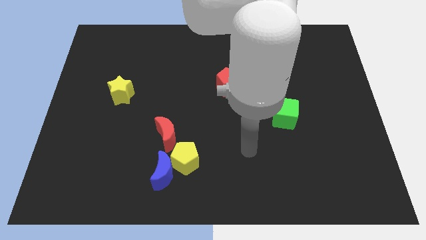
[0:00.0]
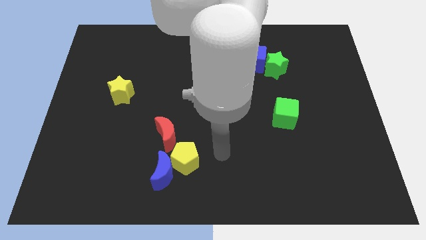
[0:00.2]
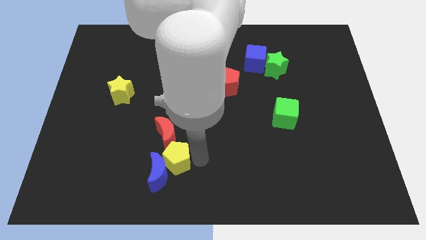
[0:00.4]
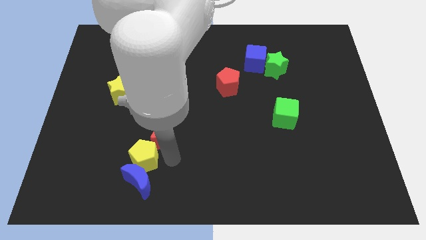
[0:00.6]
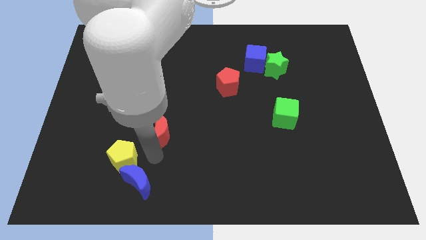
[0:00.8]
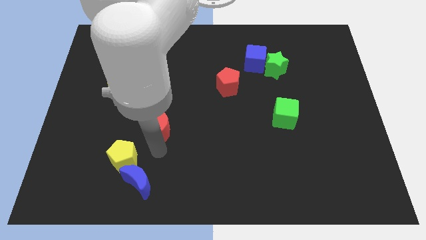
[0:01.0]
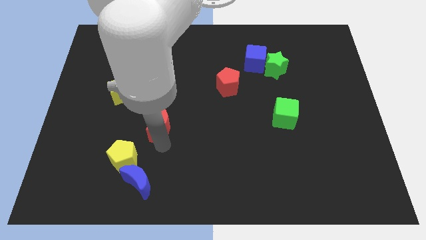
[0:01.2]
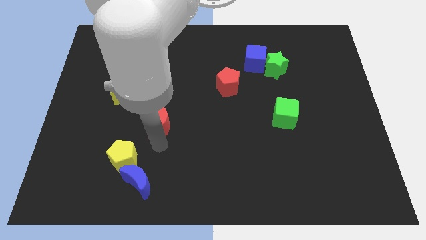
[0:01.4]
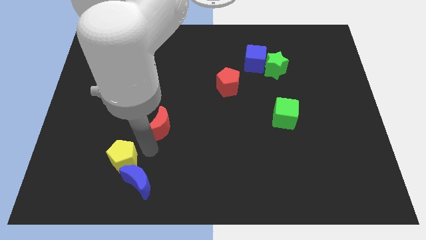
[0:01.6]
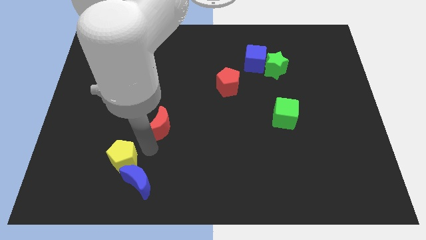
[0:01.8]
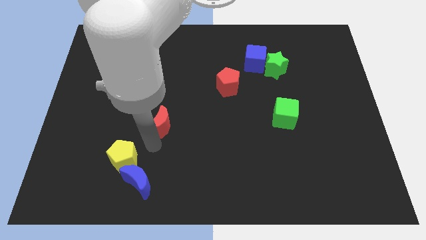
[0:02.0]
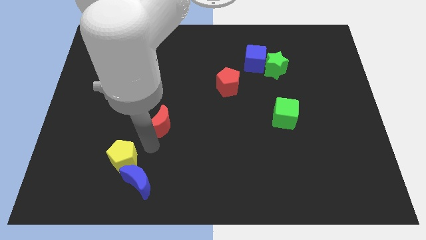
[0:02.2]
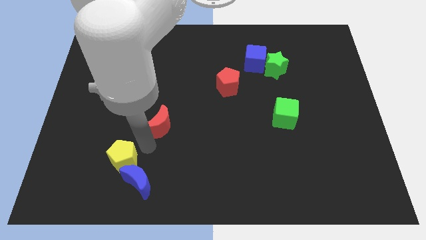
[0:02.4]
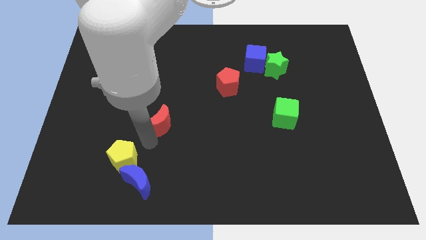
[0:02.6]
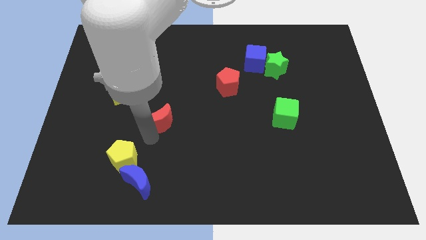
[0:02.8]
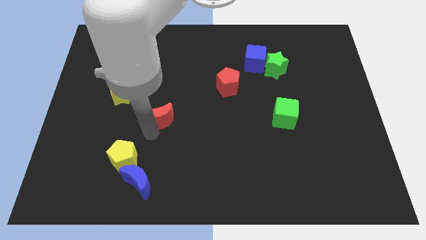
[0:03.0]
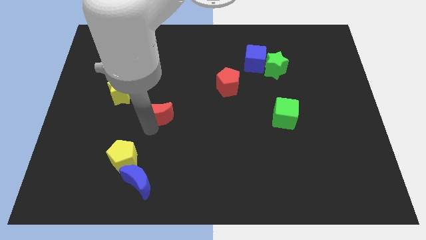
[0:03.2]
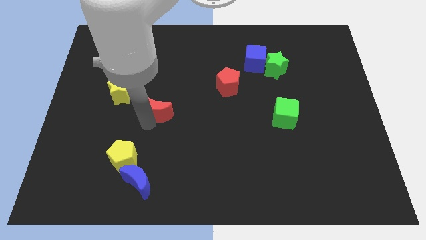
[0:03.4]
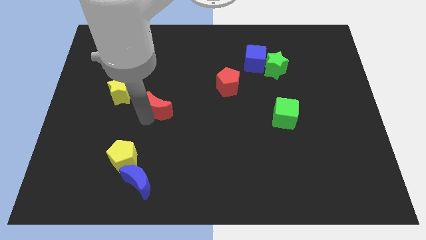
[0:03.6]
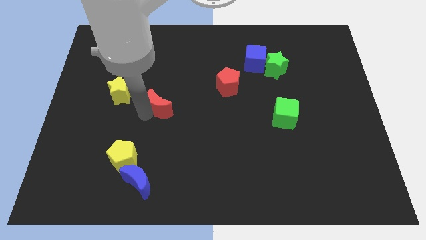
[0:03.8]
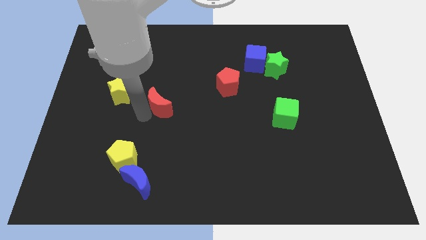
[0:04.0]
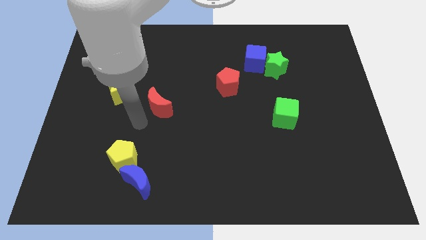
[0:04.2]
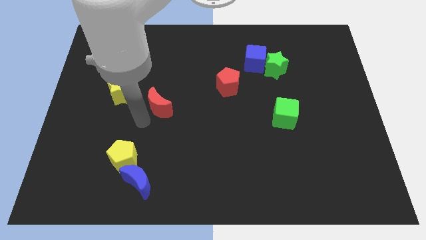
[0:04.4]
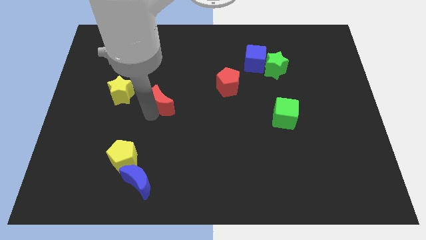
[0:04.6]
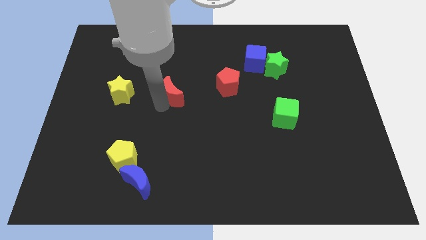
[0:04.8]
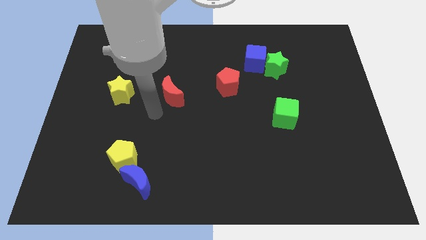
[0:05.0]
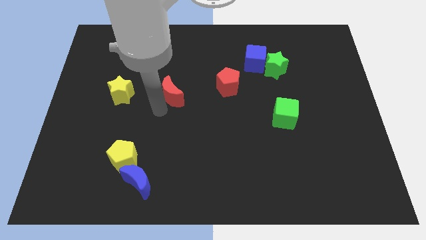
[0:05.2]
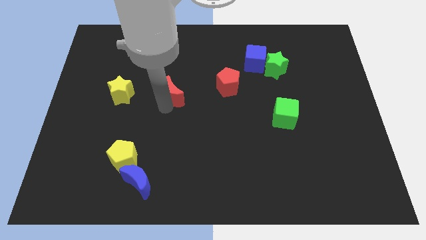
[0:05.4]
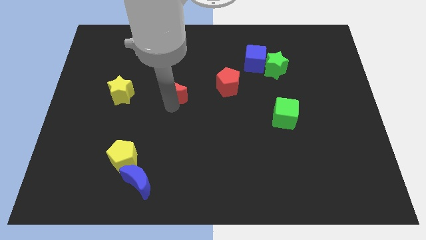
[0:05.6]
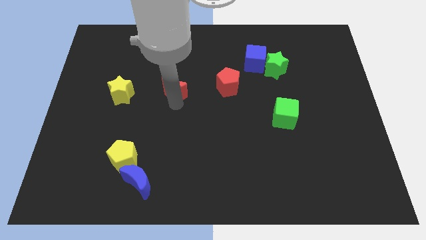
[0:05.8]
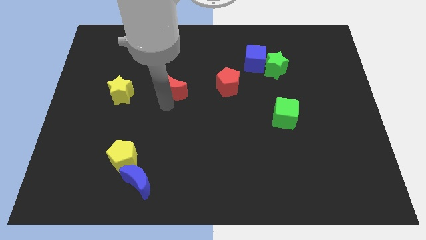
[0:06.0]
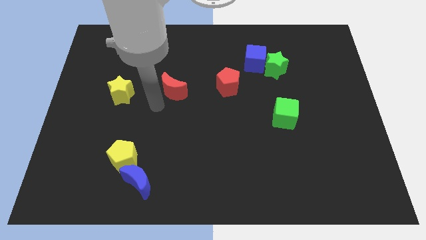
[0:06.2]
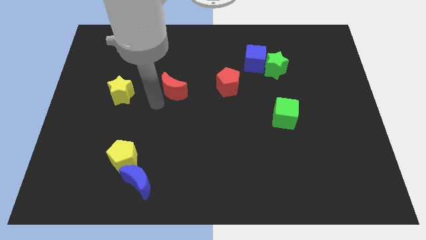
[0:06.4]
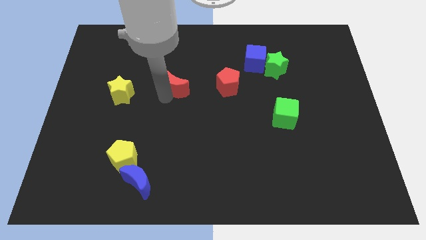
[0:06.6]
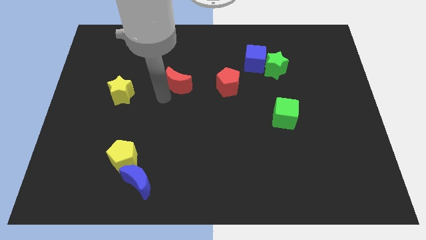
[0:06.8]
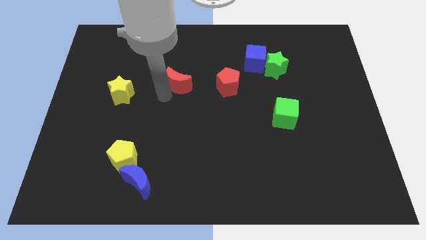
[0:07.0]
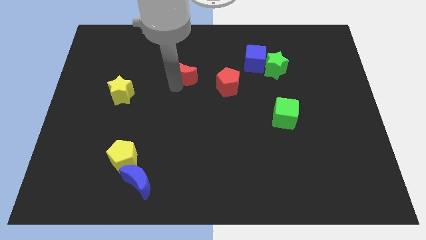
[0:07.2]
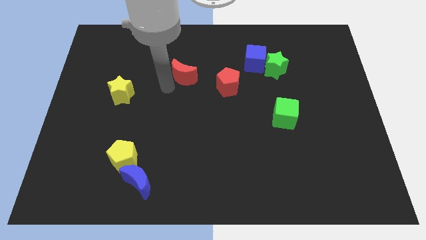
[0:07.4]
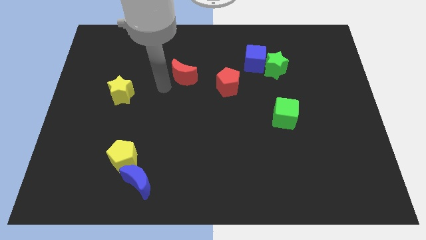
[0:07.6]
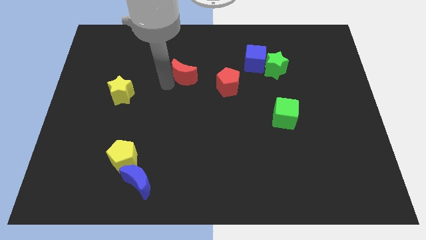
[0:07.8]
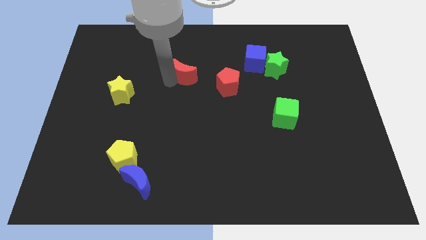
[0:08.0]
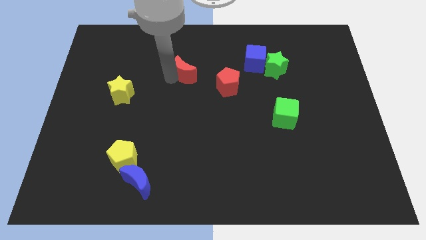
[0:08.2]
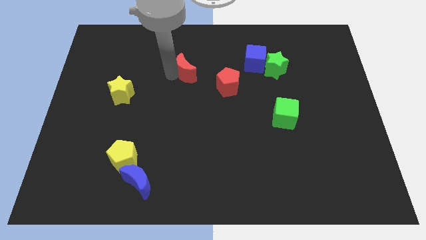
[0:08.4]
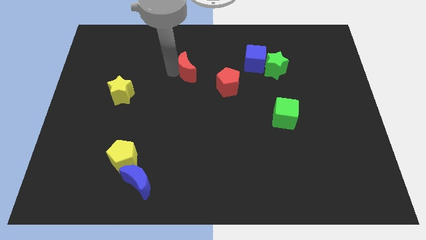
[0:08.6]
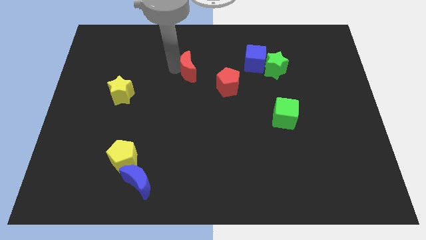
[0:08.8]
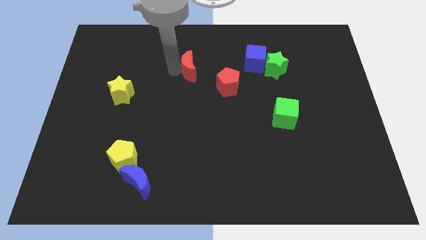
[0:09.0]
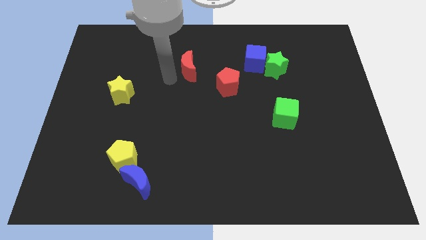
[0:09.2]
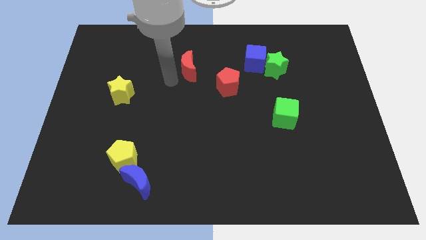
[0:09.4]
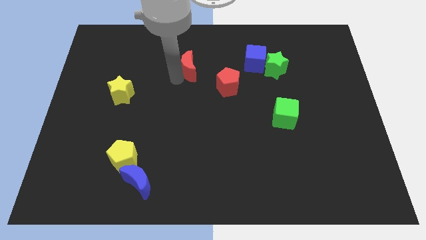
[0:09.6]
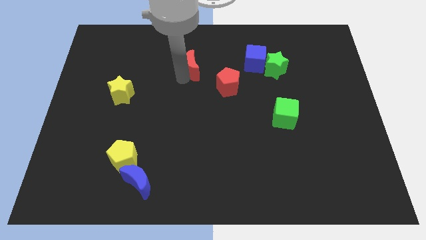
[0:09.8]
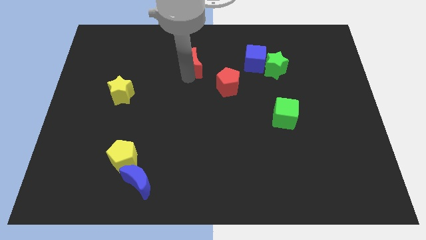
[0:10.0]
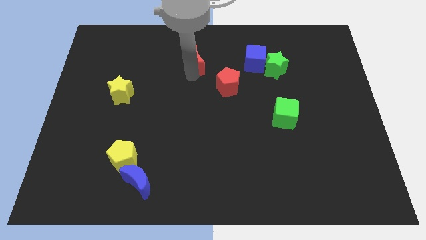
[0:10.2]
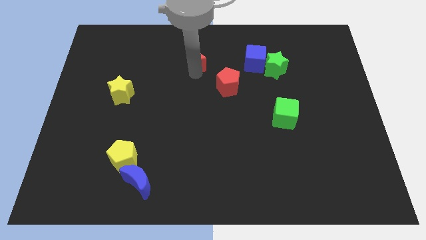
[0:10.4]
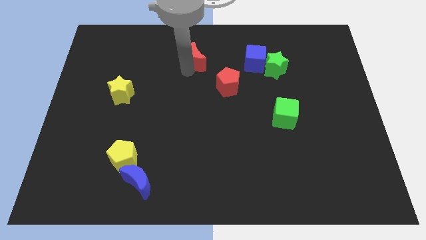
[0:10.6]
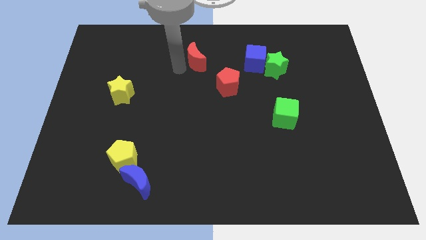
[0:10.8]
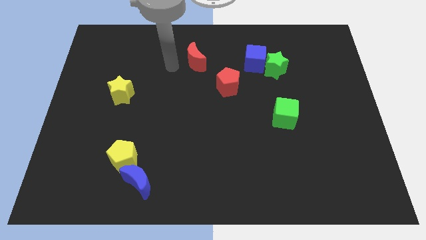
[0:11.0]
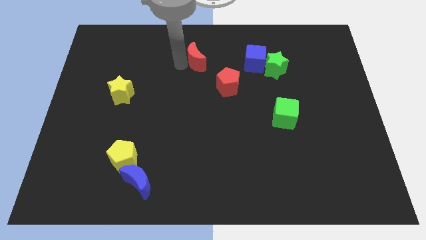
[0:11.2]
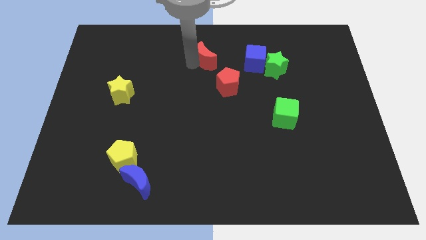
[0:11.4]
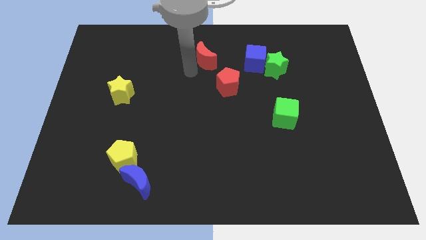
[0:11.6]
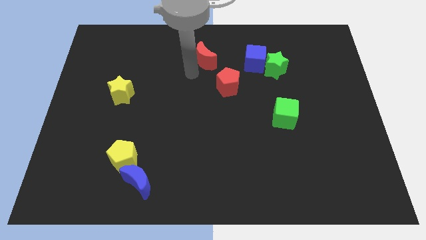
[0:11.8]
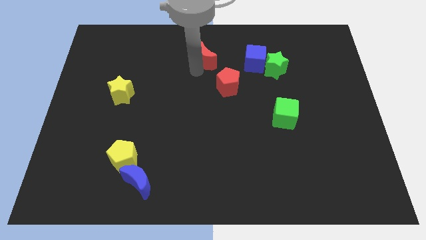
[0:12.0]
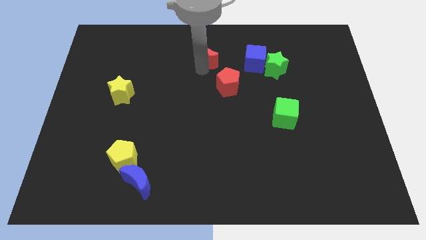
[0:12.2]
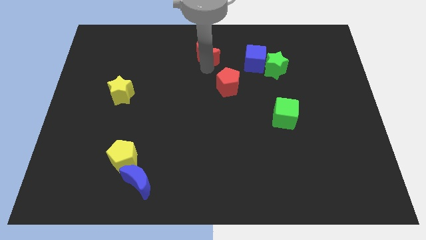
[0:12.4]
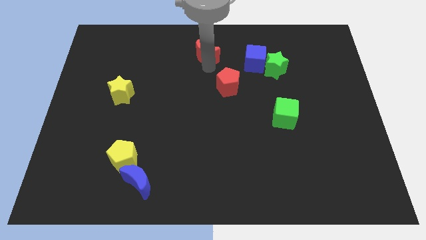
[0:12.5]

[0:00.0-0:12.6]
put the red moon to the towards your base

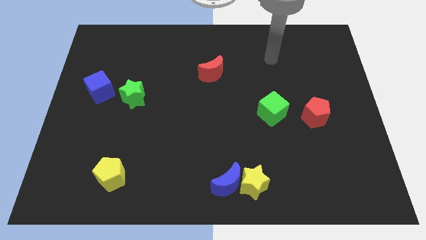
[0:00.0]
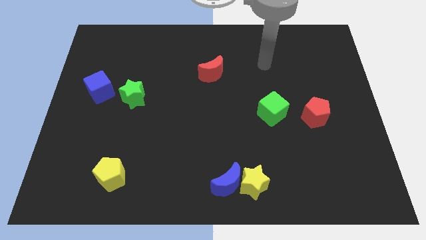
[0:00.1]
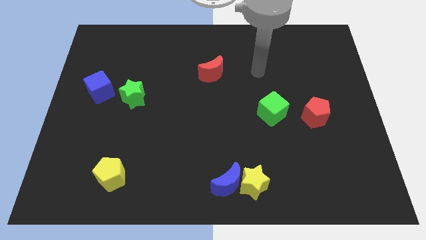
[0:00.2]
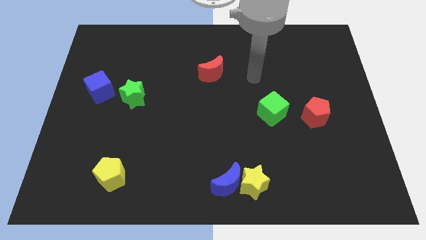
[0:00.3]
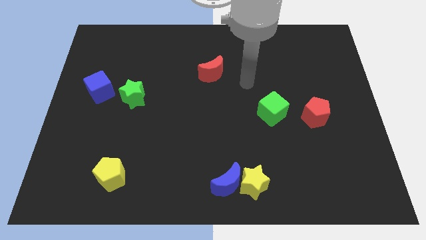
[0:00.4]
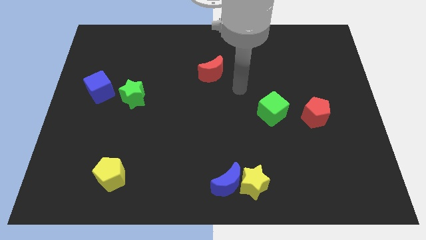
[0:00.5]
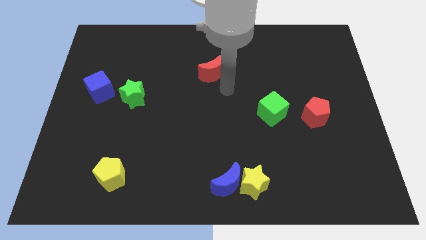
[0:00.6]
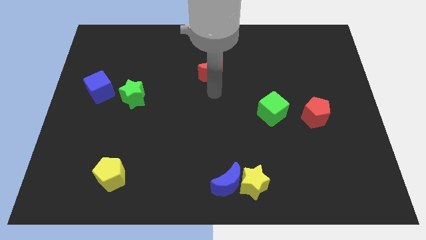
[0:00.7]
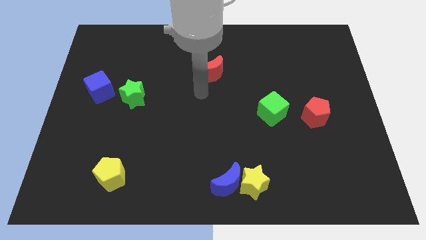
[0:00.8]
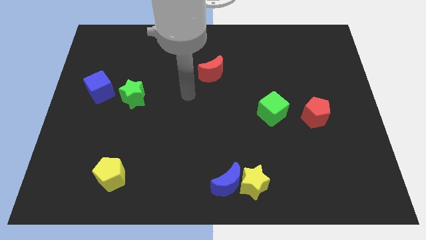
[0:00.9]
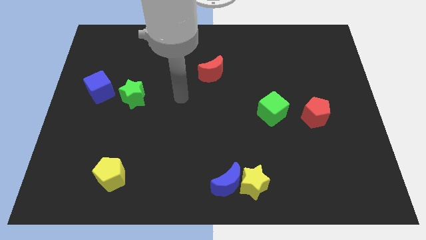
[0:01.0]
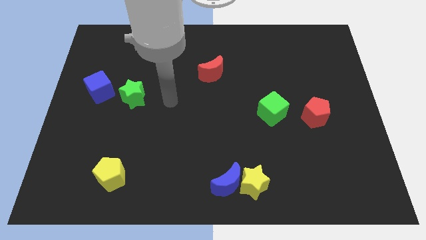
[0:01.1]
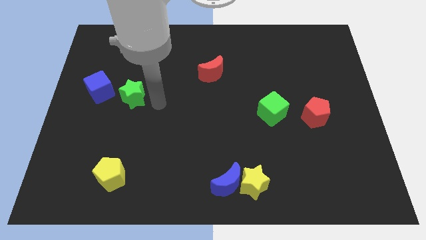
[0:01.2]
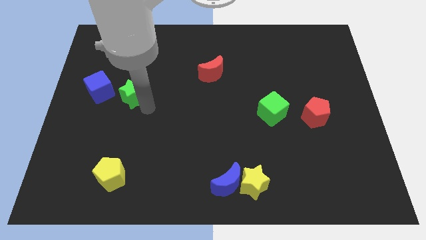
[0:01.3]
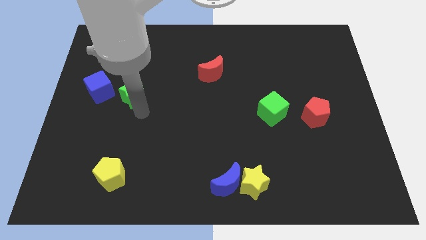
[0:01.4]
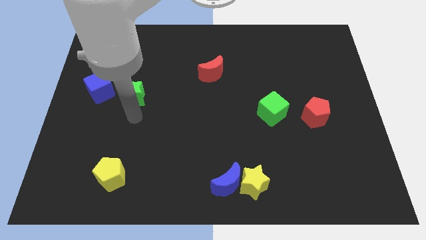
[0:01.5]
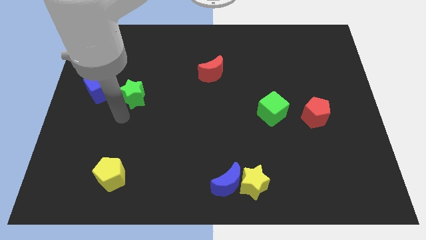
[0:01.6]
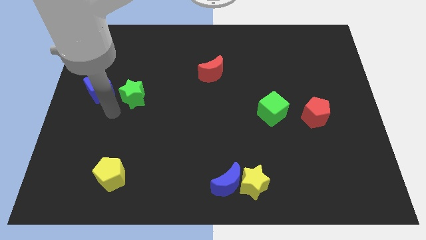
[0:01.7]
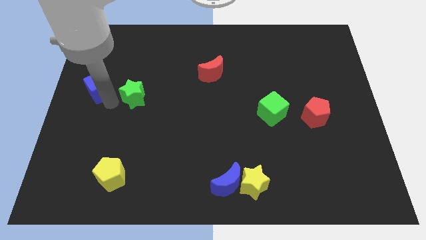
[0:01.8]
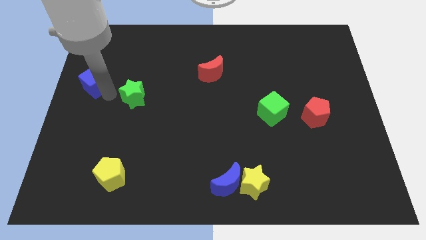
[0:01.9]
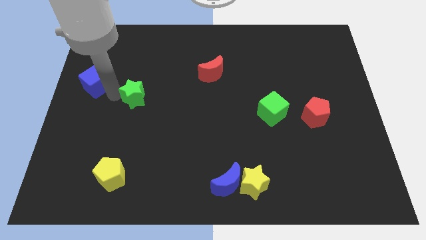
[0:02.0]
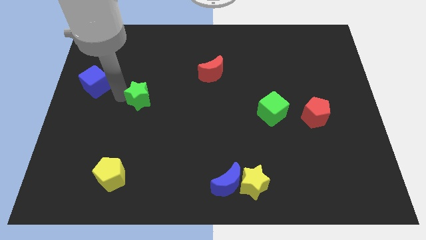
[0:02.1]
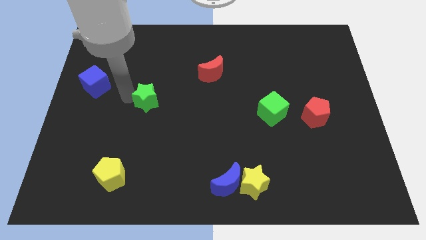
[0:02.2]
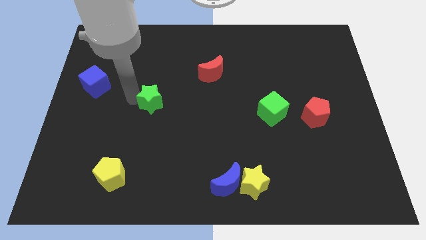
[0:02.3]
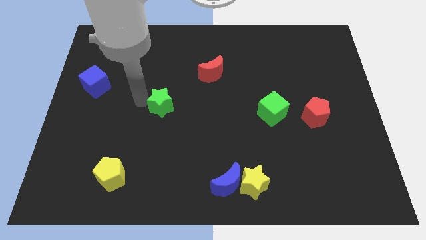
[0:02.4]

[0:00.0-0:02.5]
push the green star to the center
